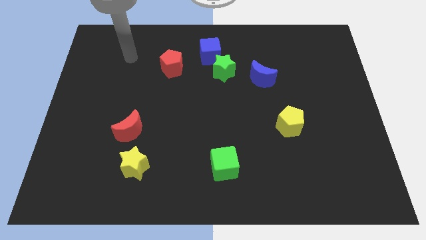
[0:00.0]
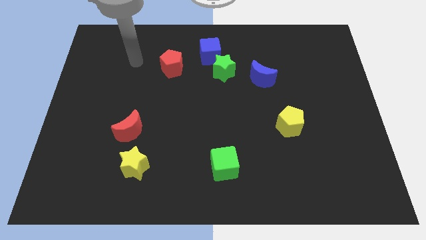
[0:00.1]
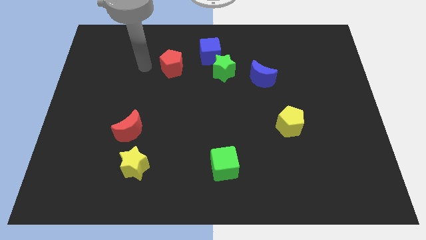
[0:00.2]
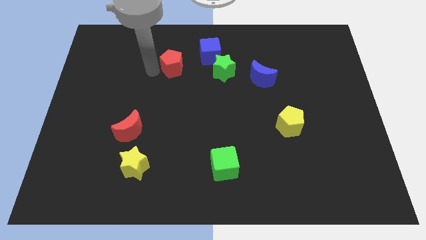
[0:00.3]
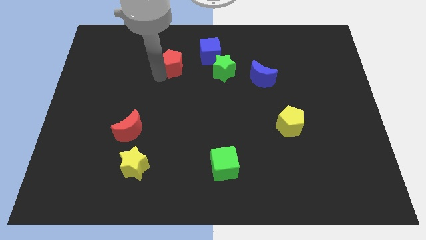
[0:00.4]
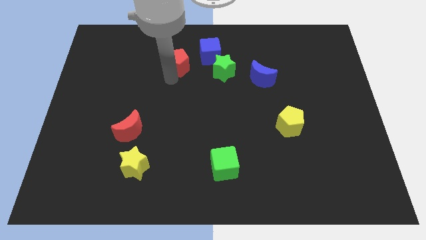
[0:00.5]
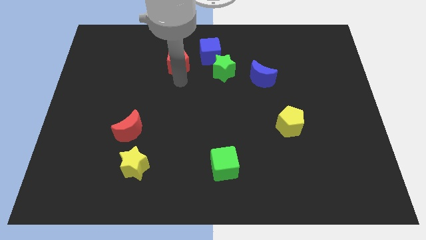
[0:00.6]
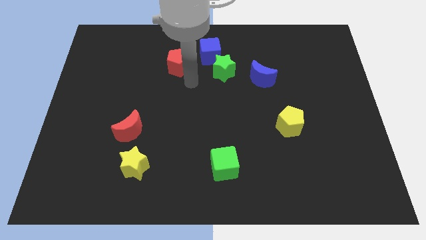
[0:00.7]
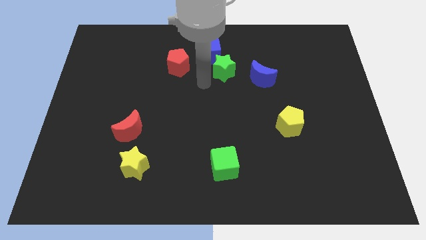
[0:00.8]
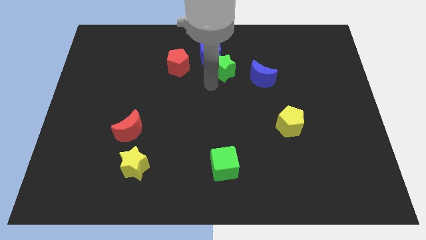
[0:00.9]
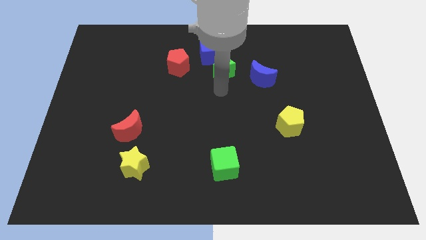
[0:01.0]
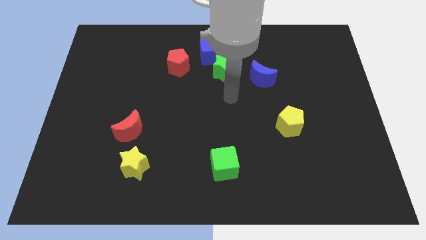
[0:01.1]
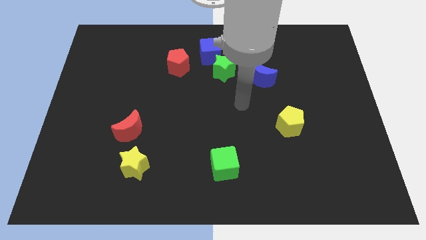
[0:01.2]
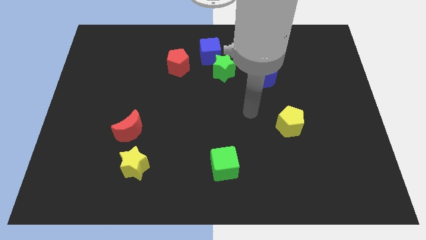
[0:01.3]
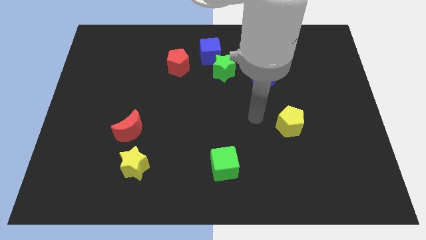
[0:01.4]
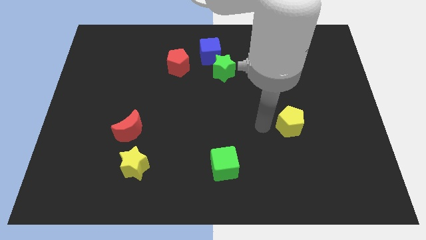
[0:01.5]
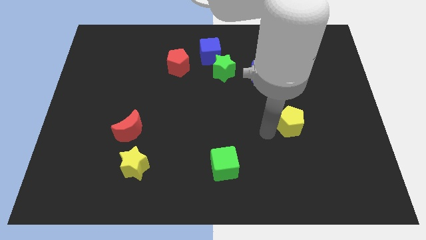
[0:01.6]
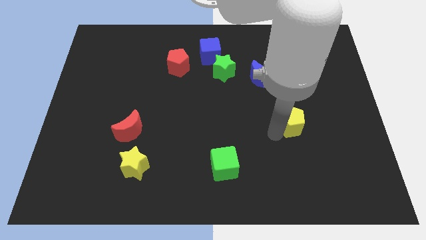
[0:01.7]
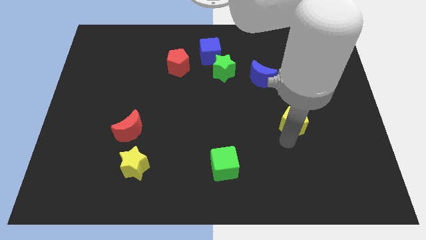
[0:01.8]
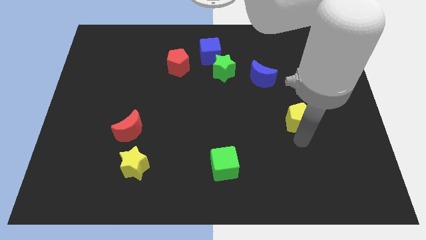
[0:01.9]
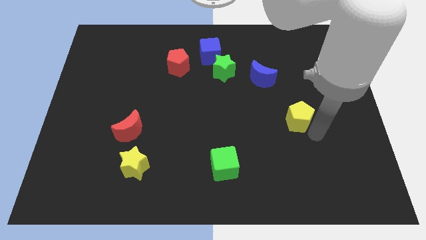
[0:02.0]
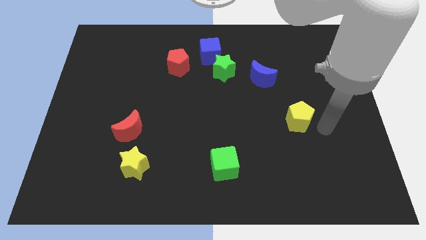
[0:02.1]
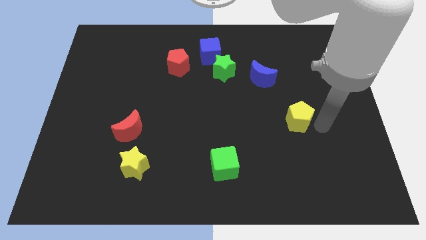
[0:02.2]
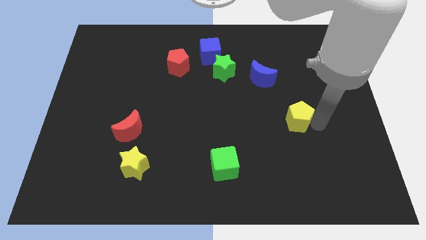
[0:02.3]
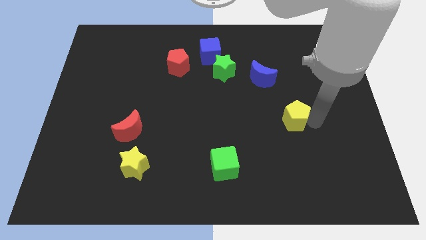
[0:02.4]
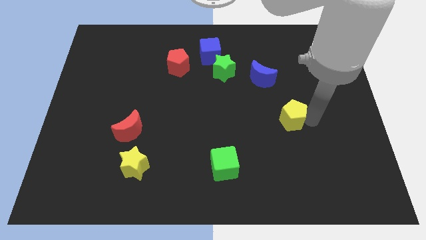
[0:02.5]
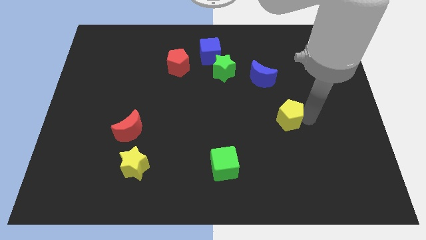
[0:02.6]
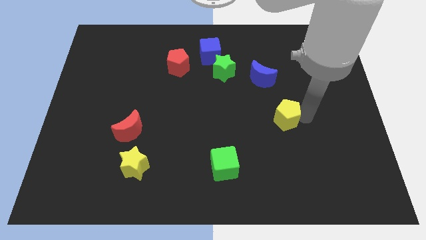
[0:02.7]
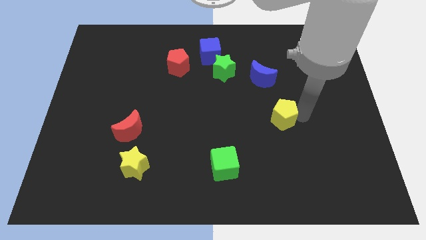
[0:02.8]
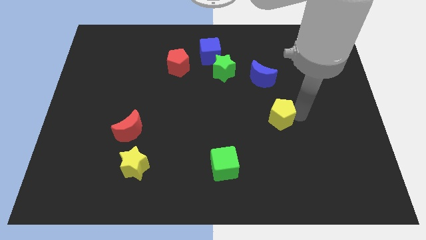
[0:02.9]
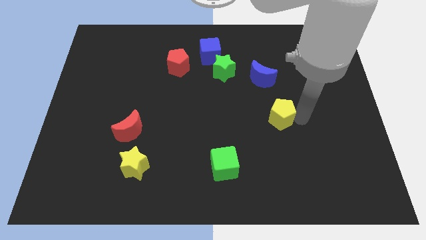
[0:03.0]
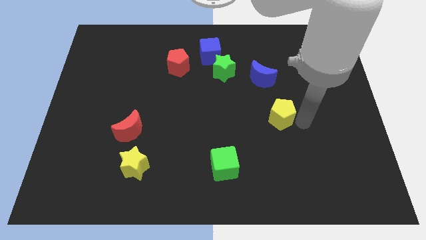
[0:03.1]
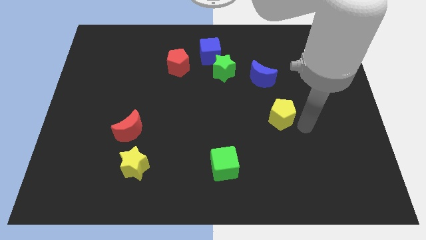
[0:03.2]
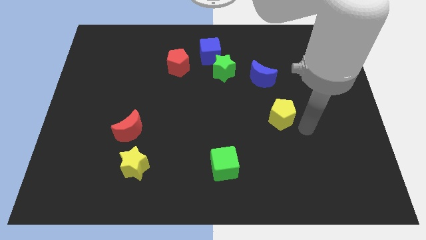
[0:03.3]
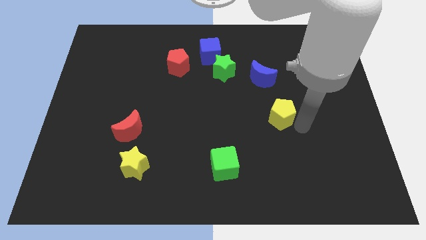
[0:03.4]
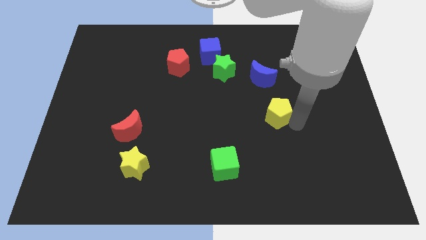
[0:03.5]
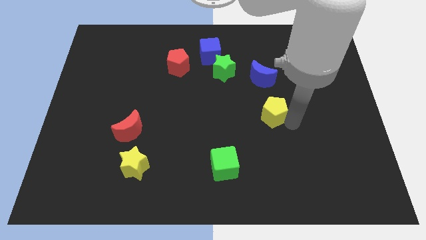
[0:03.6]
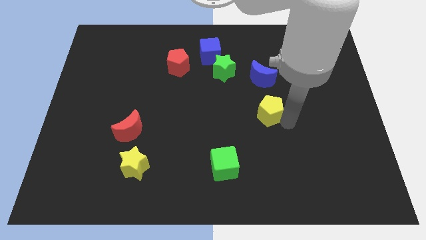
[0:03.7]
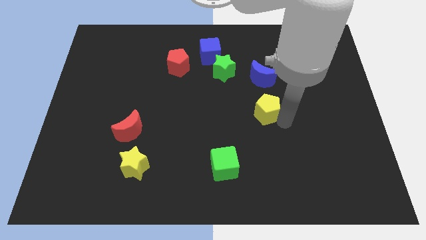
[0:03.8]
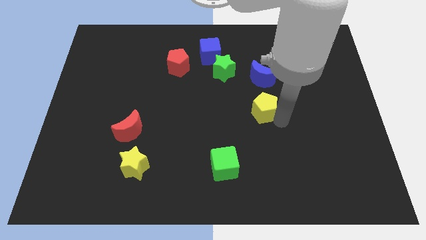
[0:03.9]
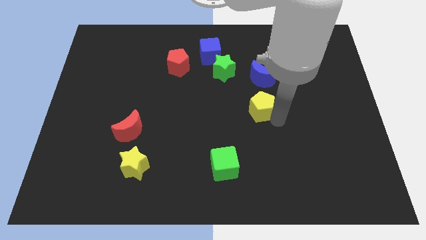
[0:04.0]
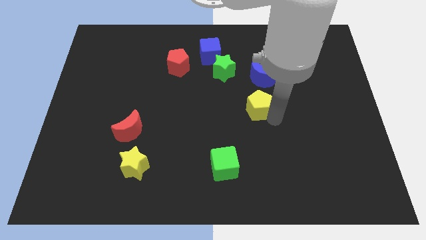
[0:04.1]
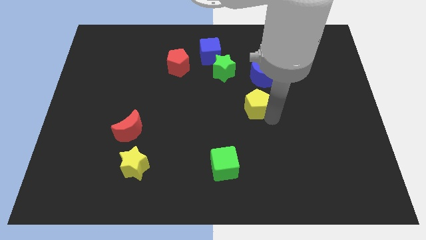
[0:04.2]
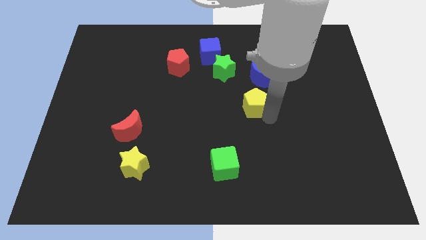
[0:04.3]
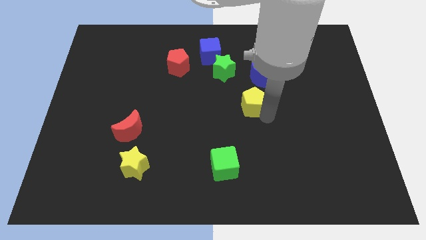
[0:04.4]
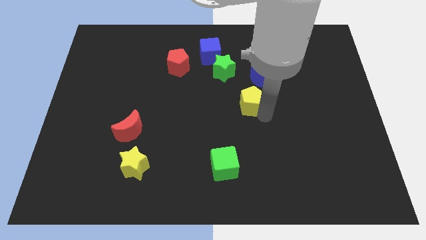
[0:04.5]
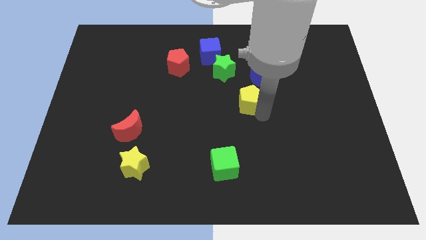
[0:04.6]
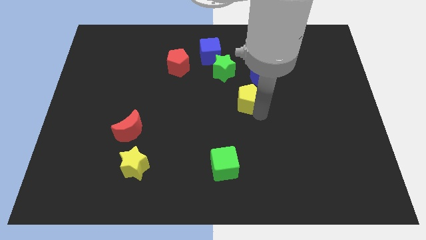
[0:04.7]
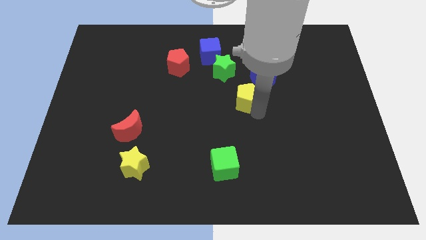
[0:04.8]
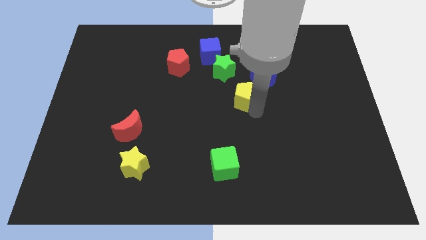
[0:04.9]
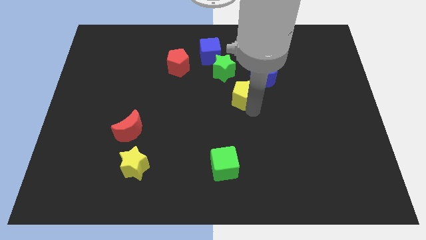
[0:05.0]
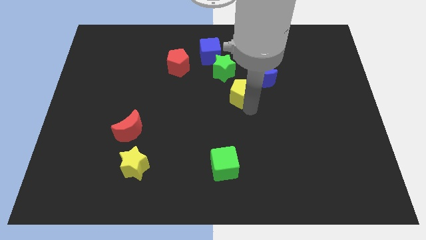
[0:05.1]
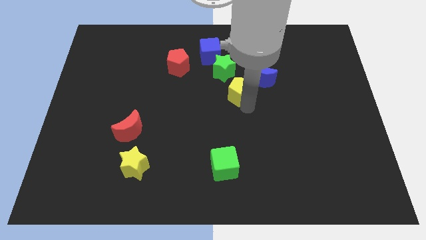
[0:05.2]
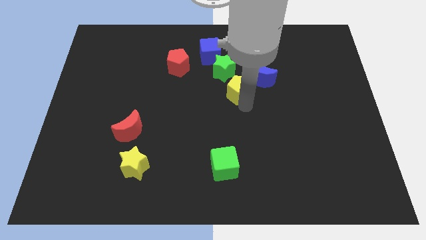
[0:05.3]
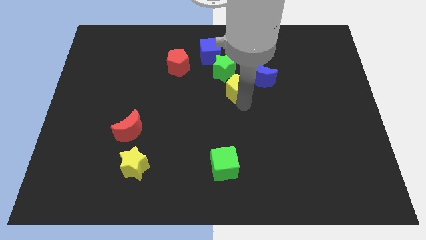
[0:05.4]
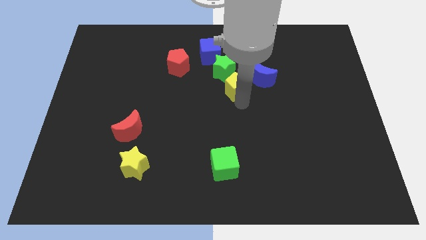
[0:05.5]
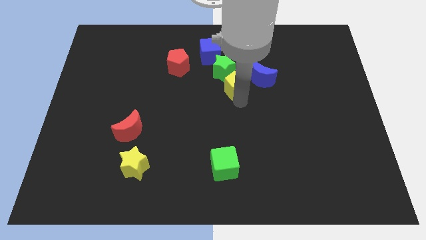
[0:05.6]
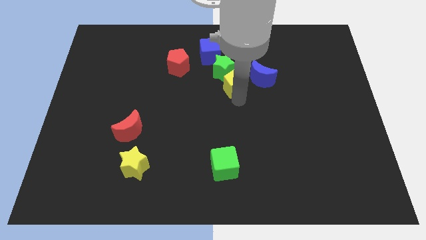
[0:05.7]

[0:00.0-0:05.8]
push the yellow pentagon close to the green star

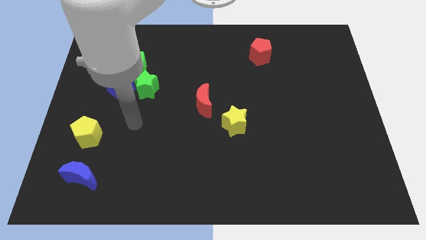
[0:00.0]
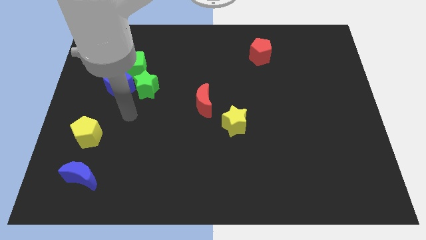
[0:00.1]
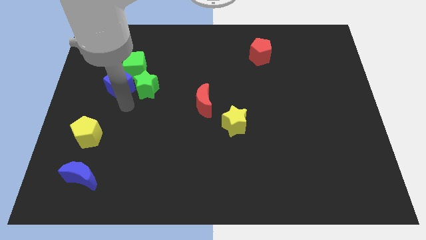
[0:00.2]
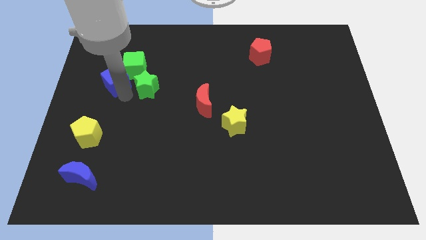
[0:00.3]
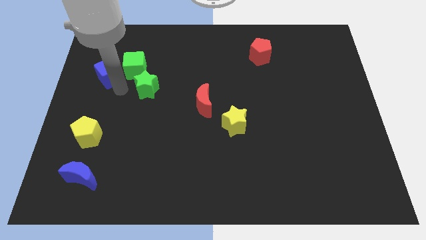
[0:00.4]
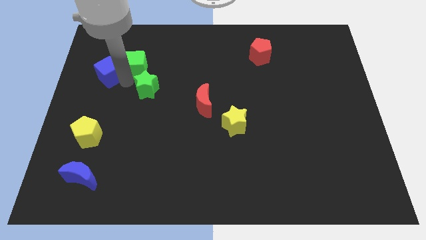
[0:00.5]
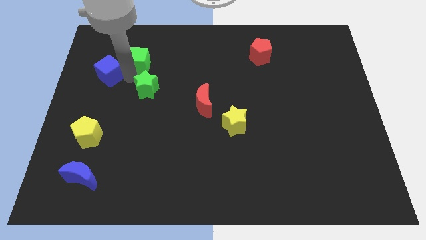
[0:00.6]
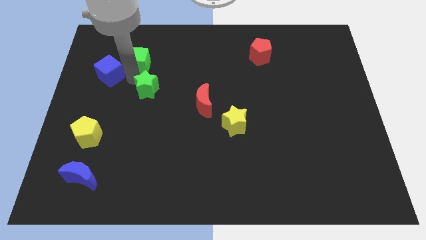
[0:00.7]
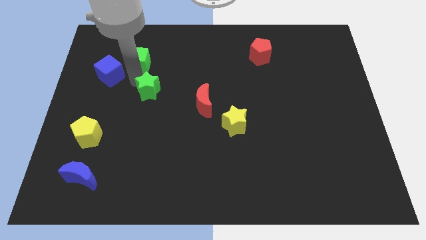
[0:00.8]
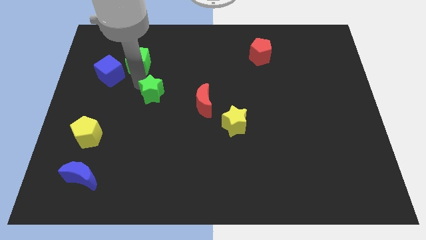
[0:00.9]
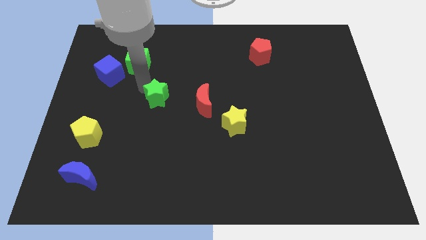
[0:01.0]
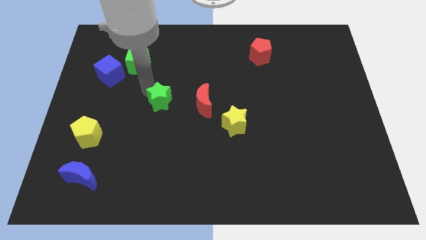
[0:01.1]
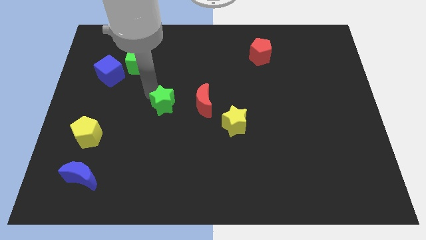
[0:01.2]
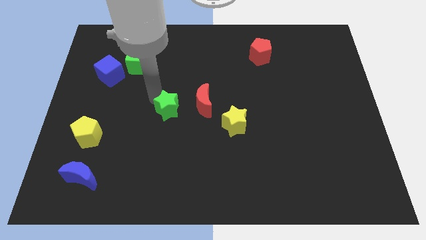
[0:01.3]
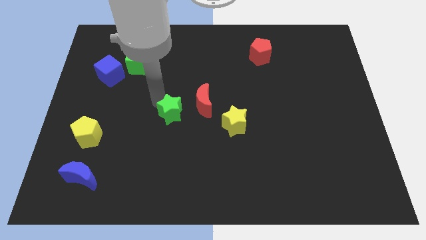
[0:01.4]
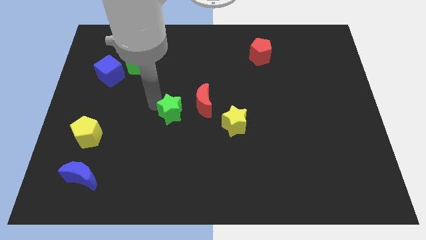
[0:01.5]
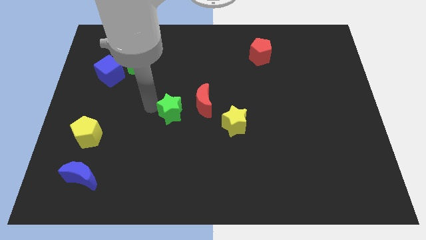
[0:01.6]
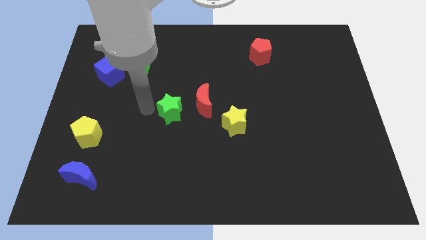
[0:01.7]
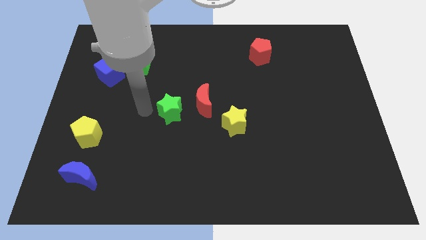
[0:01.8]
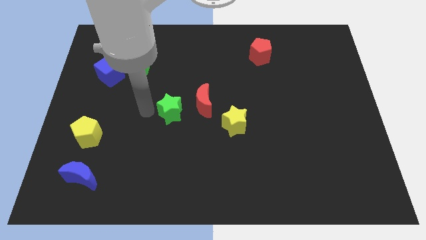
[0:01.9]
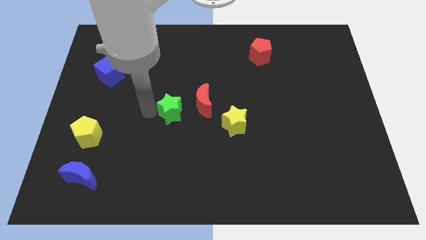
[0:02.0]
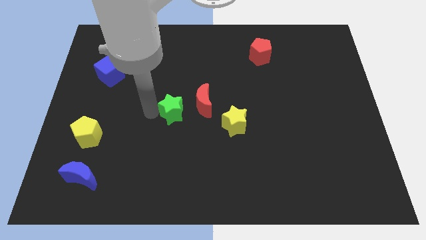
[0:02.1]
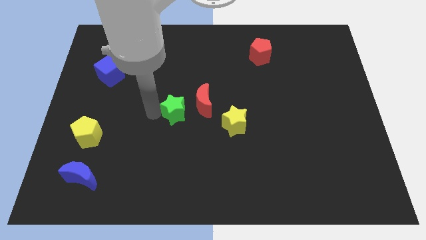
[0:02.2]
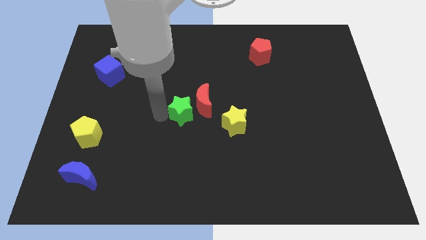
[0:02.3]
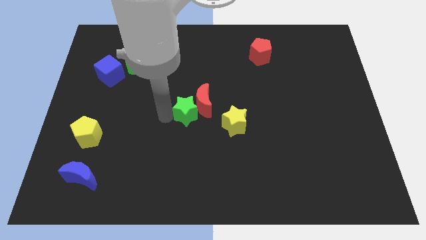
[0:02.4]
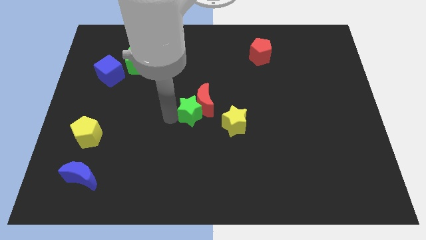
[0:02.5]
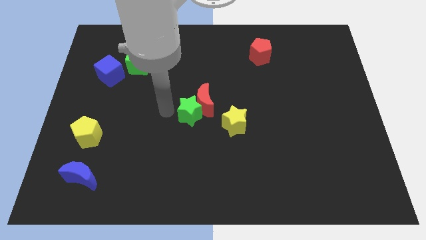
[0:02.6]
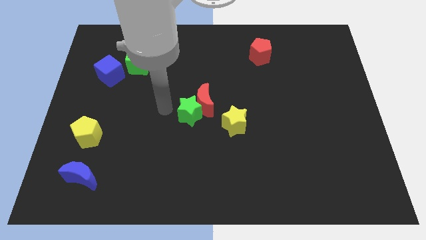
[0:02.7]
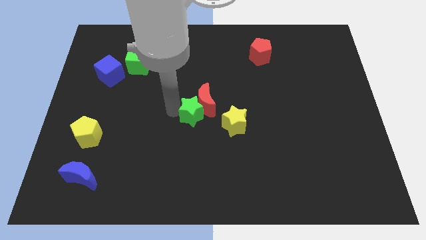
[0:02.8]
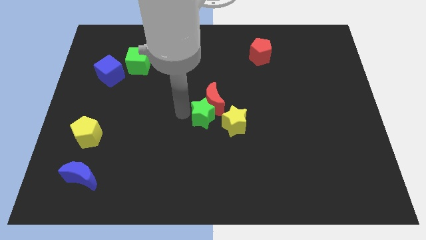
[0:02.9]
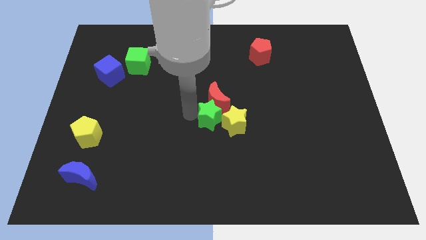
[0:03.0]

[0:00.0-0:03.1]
push the green star towards the yellow star
